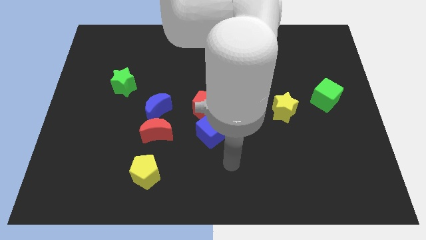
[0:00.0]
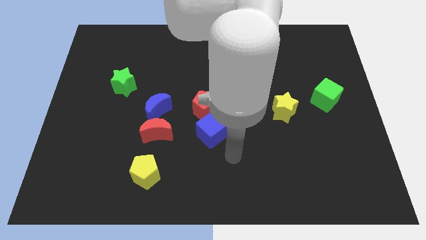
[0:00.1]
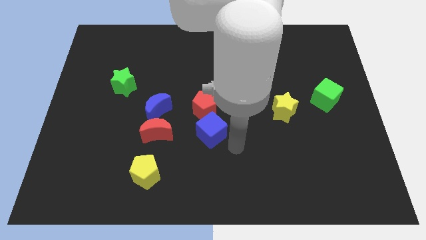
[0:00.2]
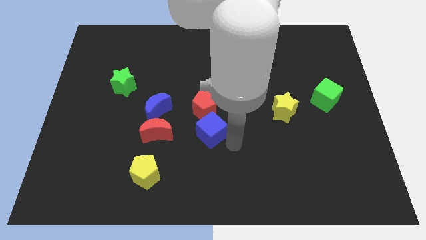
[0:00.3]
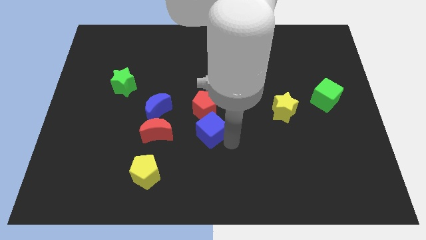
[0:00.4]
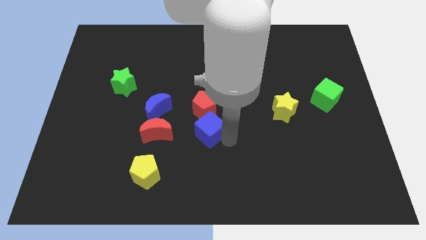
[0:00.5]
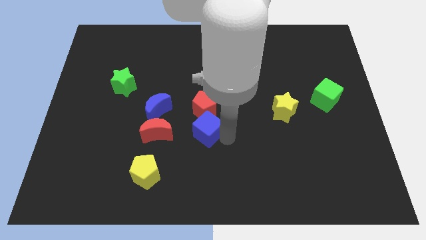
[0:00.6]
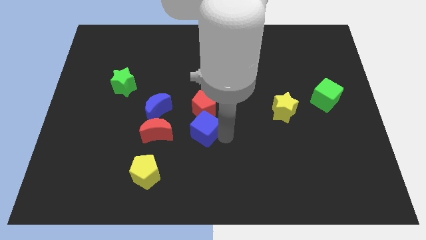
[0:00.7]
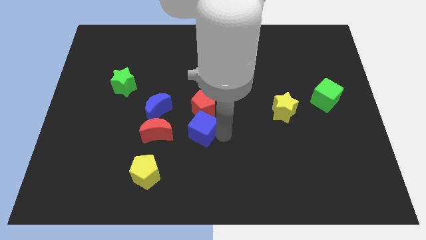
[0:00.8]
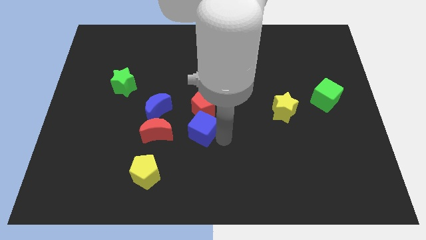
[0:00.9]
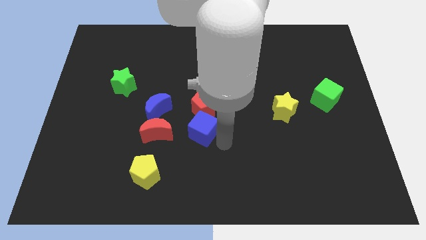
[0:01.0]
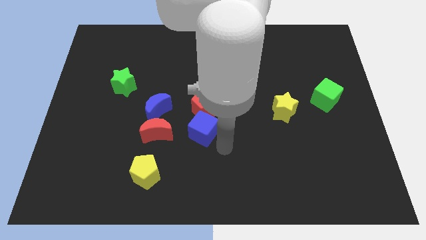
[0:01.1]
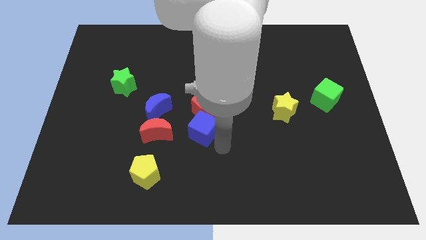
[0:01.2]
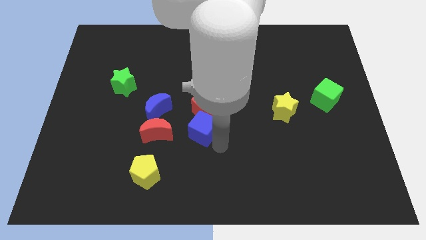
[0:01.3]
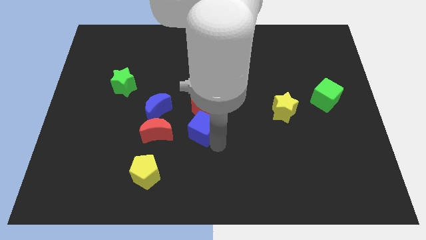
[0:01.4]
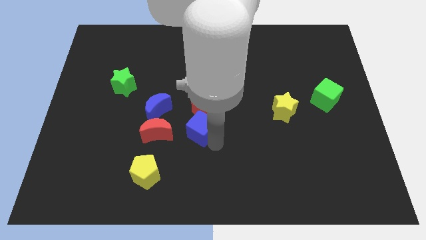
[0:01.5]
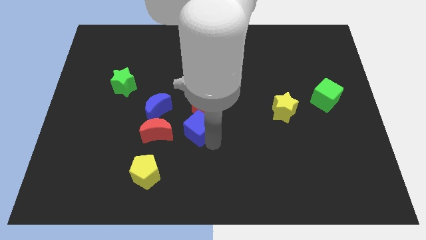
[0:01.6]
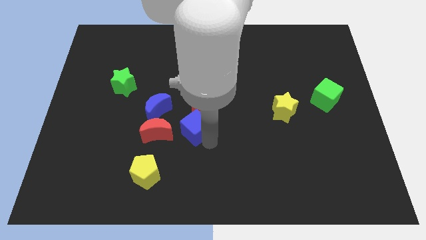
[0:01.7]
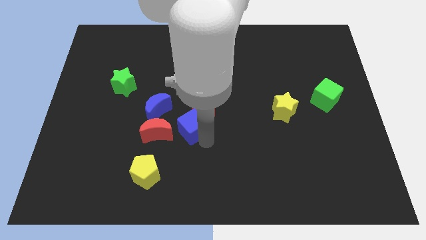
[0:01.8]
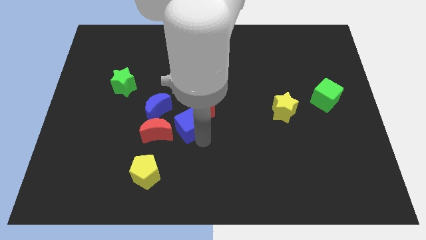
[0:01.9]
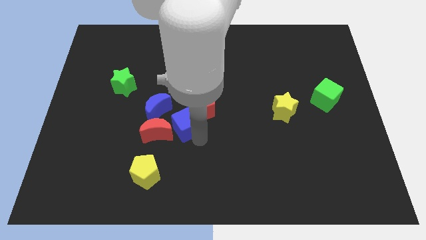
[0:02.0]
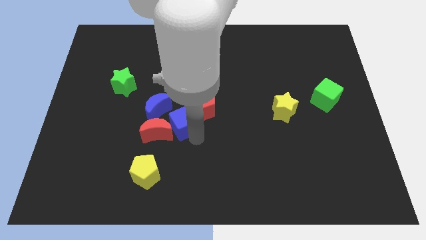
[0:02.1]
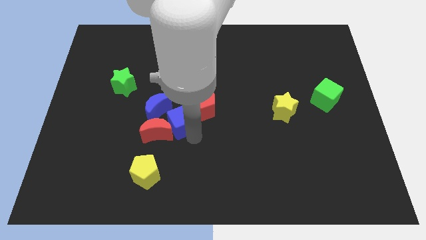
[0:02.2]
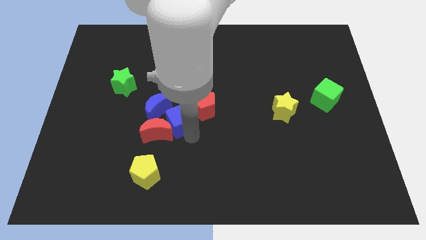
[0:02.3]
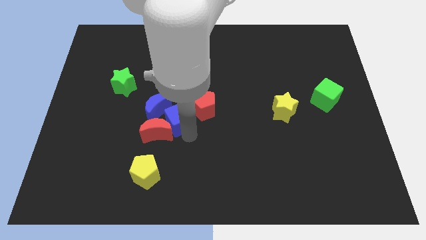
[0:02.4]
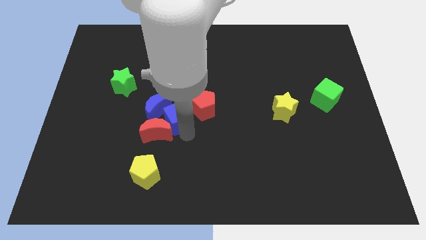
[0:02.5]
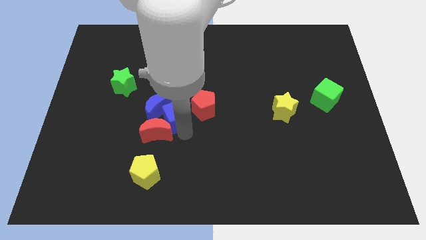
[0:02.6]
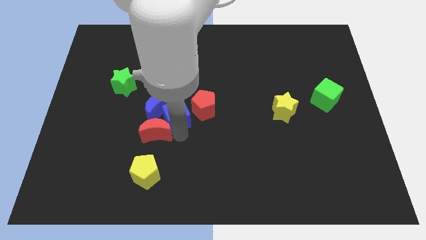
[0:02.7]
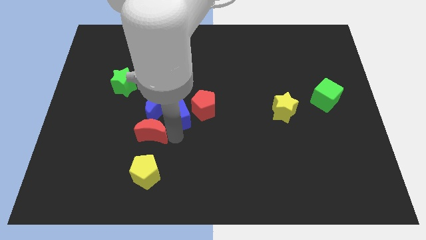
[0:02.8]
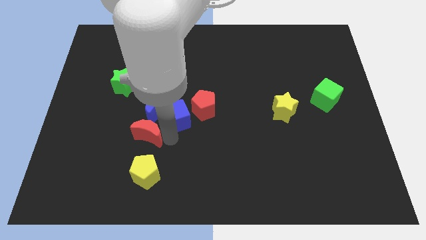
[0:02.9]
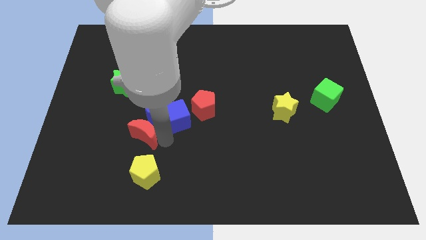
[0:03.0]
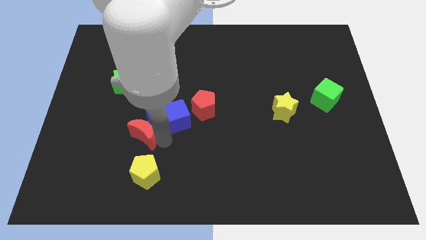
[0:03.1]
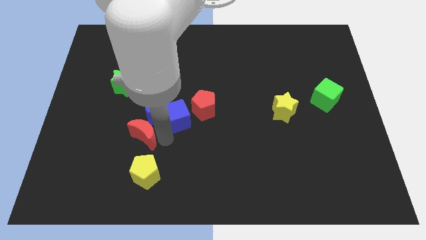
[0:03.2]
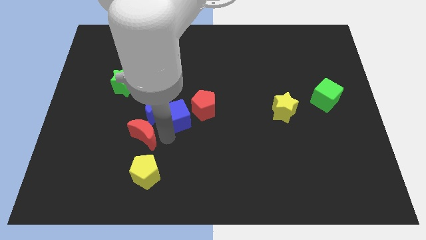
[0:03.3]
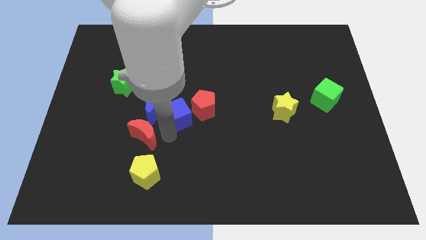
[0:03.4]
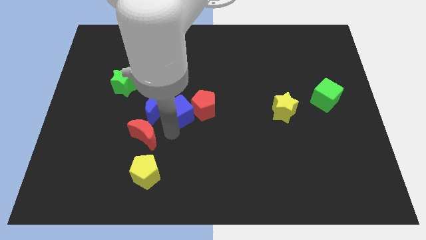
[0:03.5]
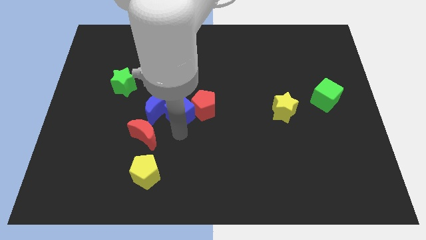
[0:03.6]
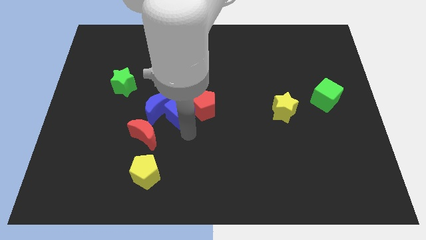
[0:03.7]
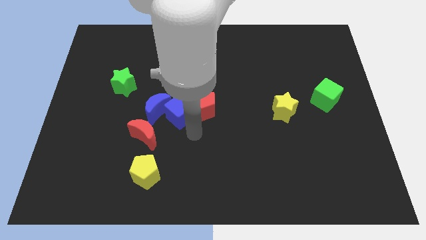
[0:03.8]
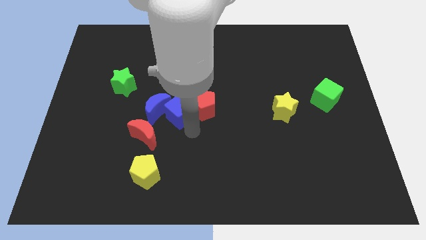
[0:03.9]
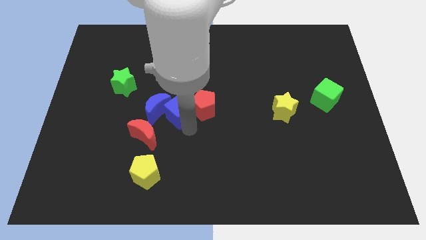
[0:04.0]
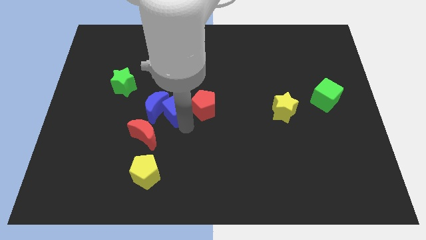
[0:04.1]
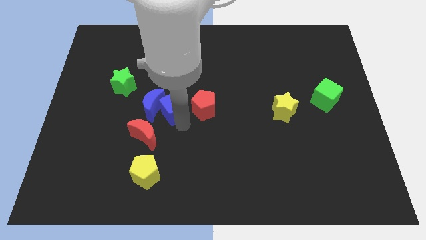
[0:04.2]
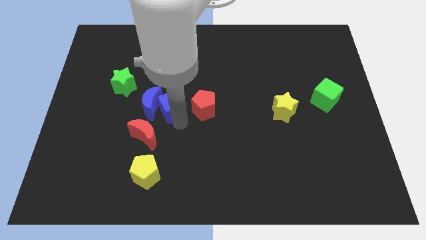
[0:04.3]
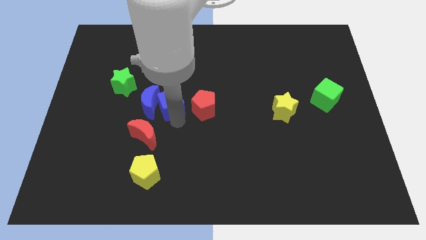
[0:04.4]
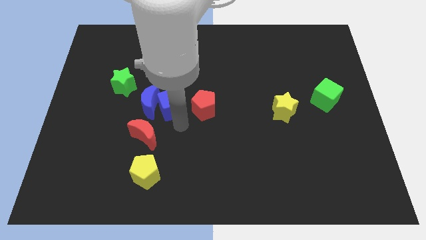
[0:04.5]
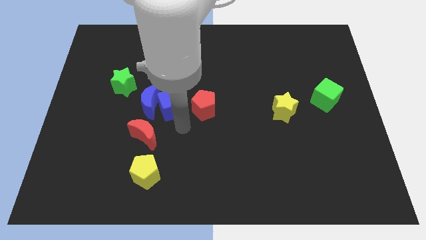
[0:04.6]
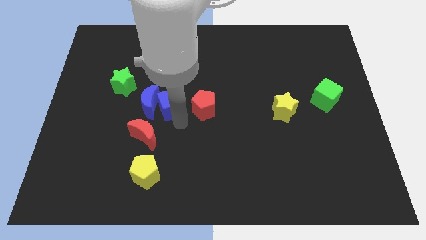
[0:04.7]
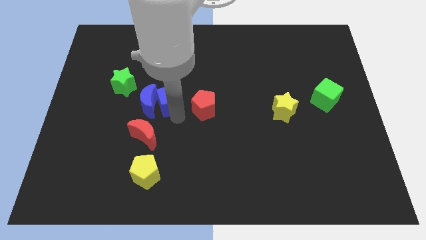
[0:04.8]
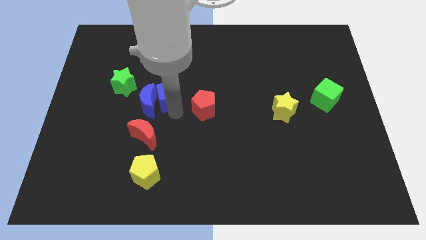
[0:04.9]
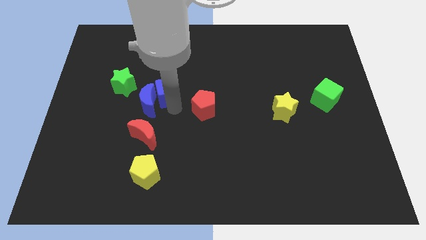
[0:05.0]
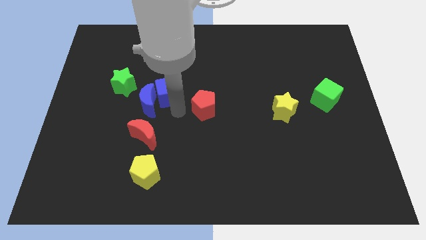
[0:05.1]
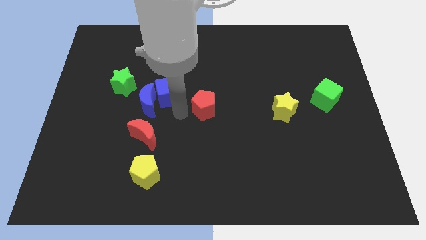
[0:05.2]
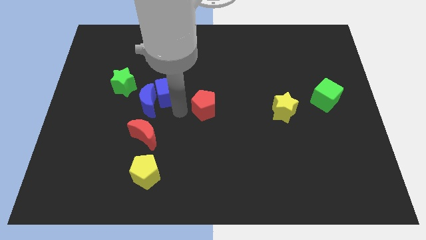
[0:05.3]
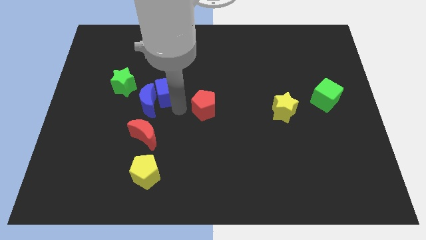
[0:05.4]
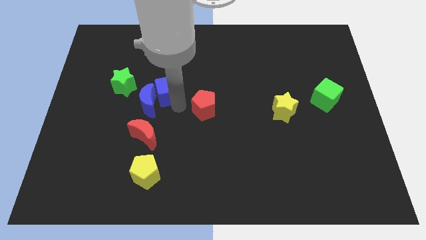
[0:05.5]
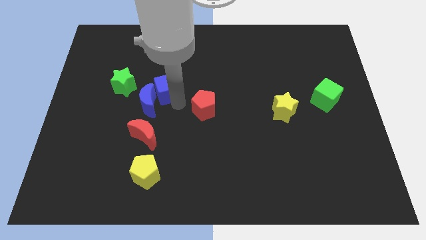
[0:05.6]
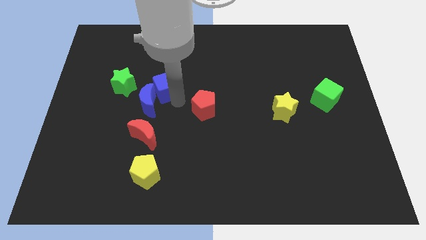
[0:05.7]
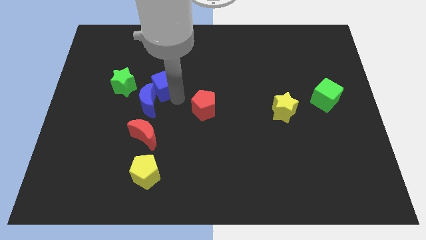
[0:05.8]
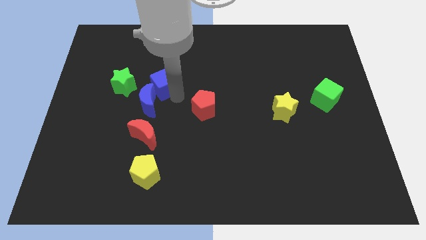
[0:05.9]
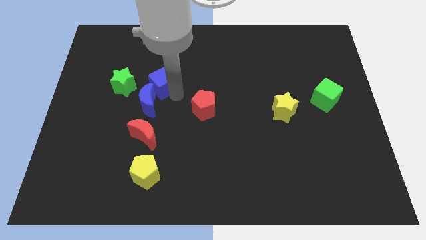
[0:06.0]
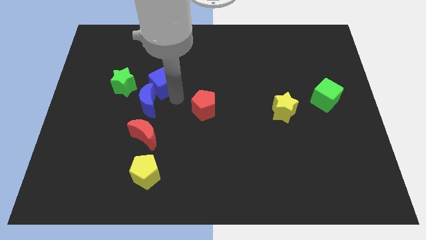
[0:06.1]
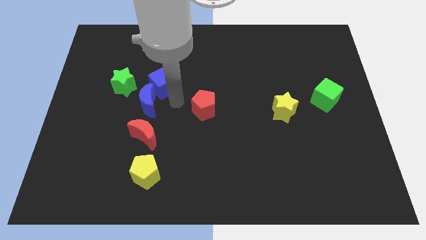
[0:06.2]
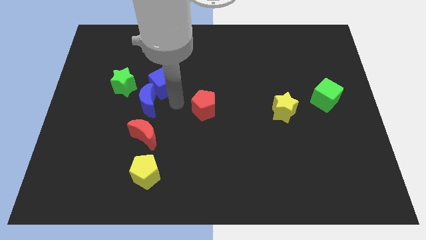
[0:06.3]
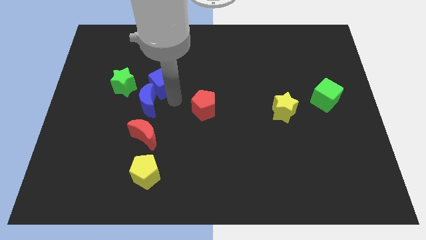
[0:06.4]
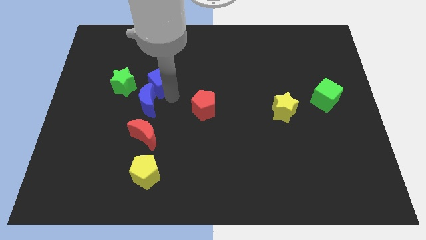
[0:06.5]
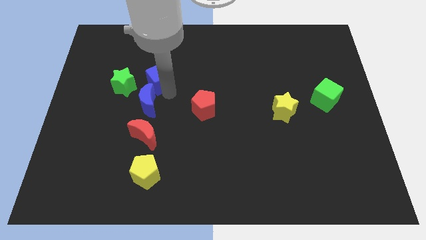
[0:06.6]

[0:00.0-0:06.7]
slide the blue cube upwards and left diagonally

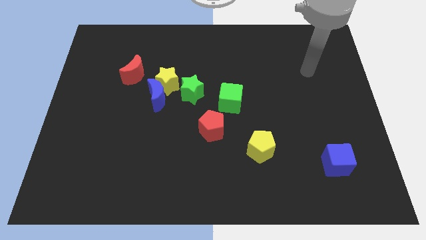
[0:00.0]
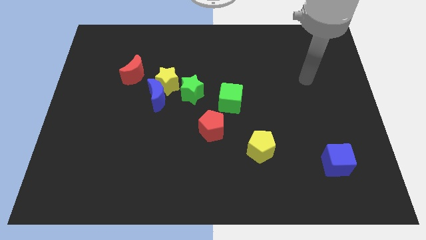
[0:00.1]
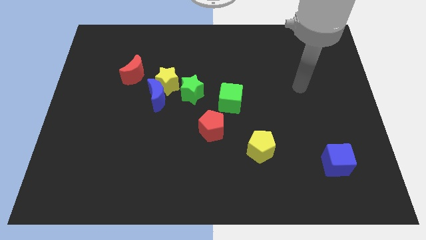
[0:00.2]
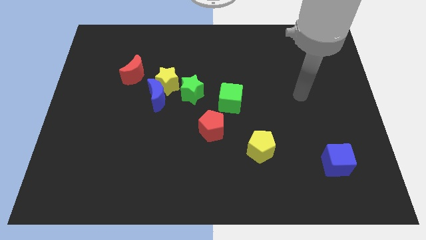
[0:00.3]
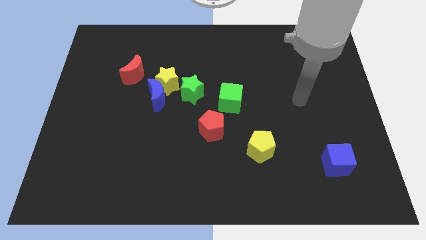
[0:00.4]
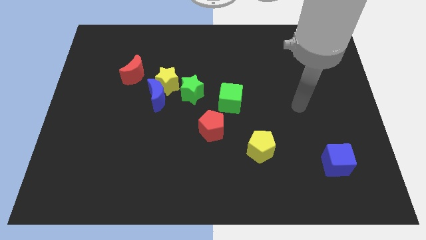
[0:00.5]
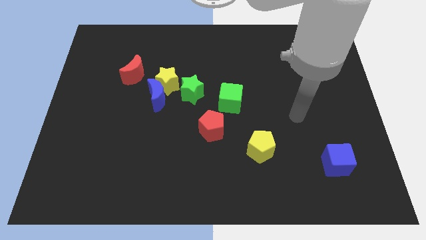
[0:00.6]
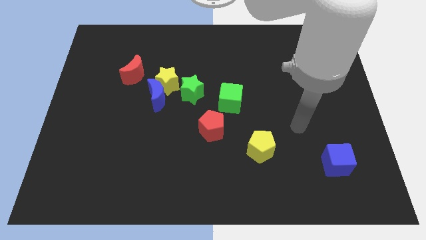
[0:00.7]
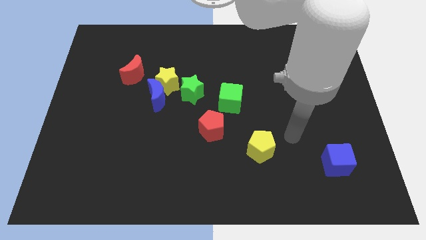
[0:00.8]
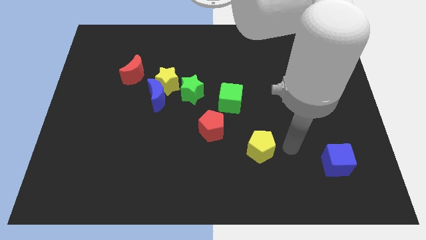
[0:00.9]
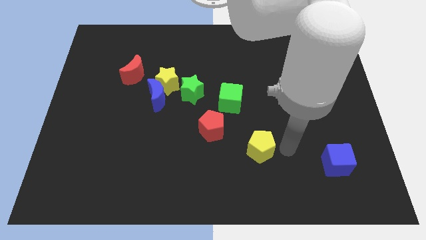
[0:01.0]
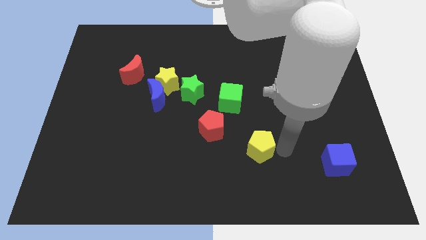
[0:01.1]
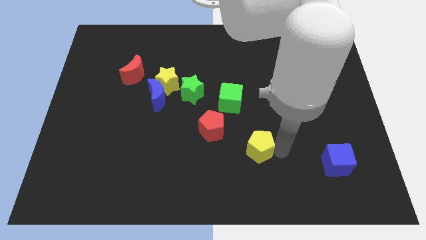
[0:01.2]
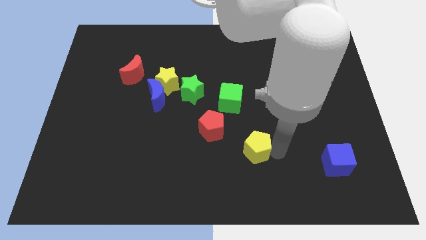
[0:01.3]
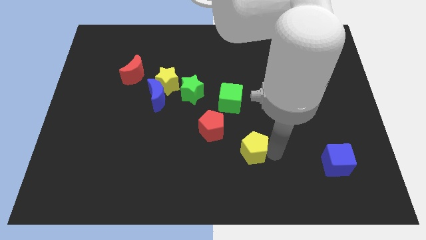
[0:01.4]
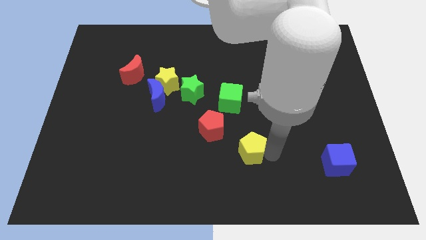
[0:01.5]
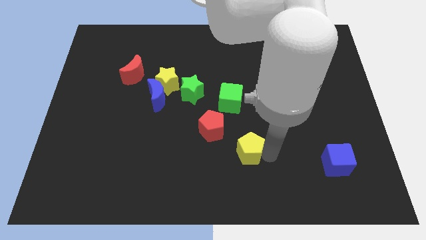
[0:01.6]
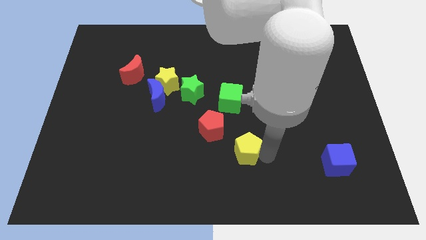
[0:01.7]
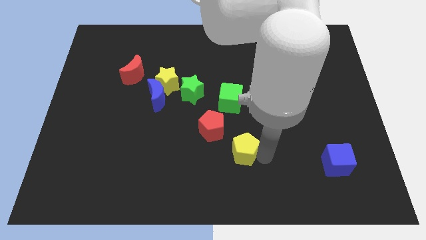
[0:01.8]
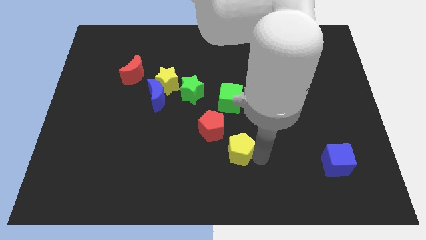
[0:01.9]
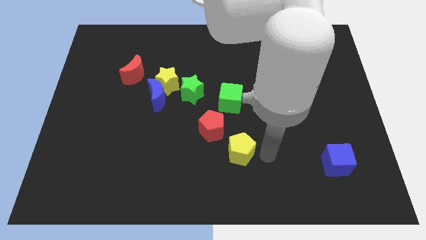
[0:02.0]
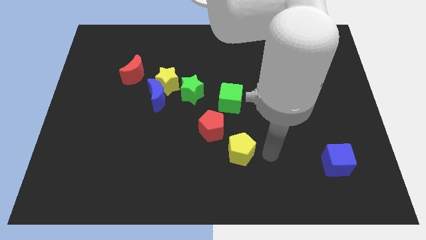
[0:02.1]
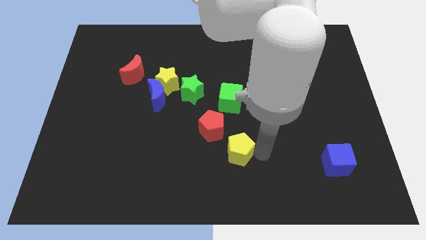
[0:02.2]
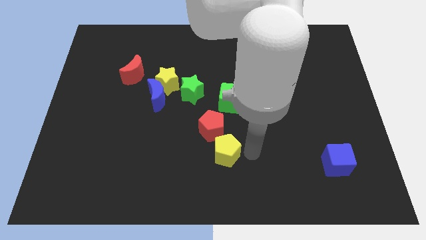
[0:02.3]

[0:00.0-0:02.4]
push the yellow pentagon somewhat to the left
